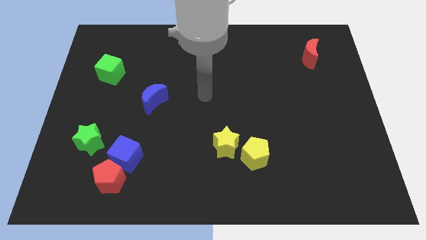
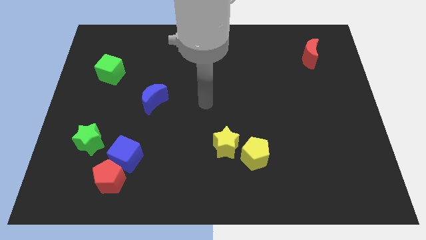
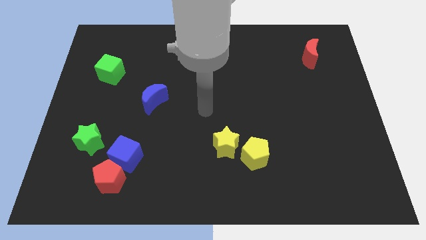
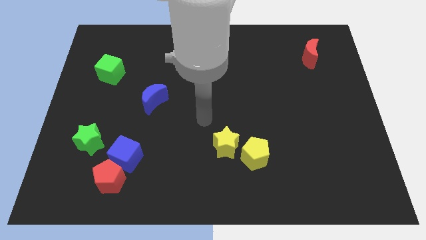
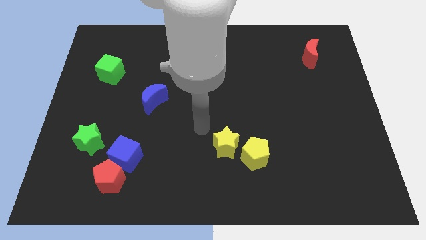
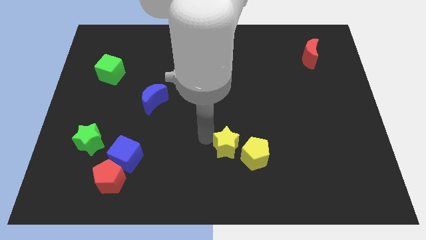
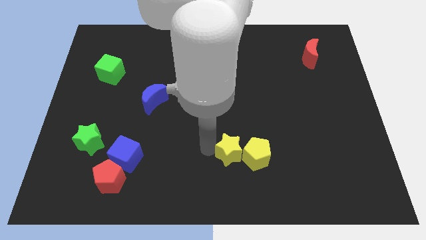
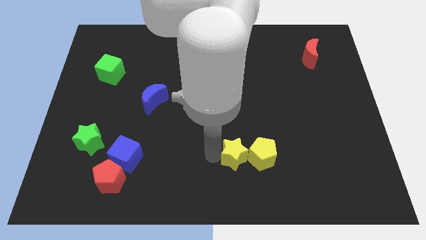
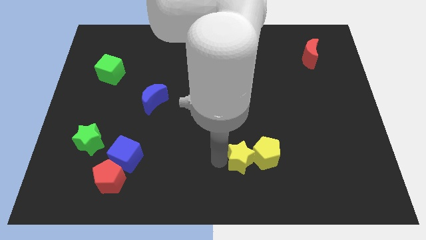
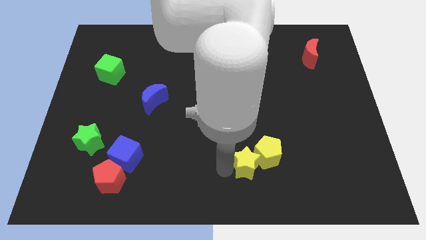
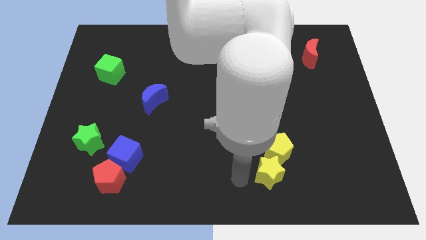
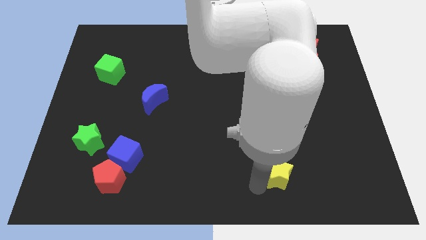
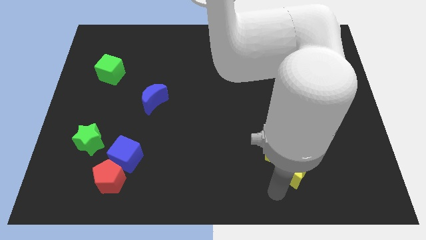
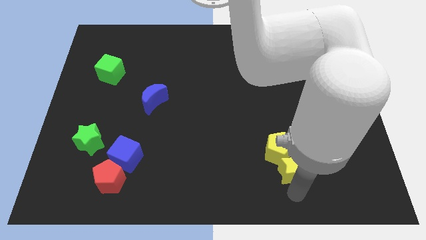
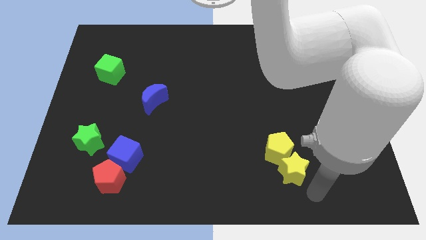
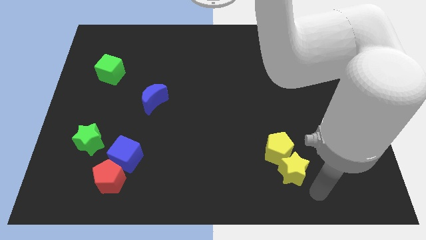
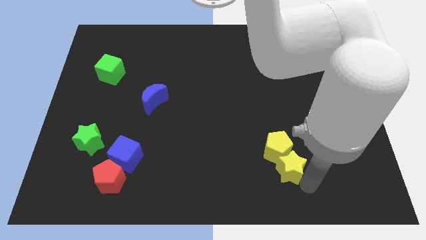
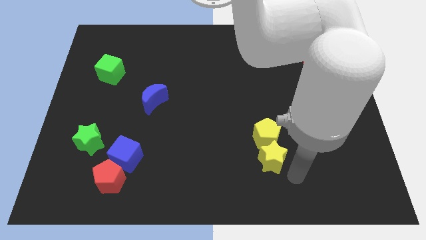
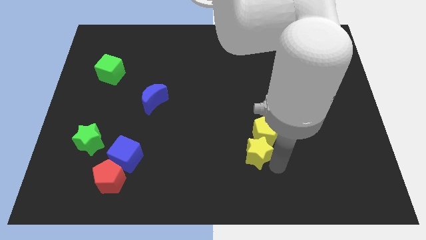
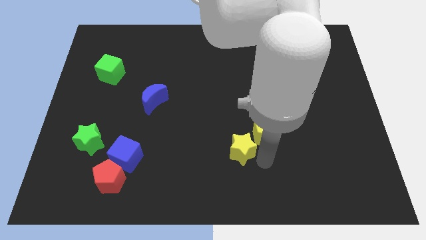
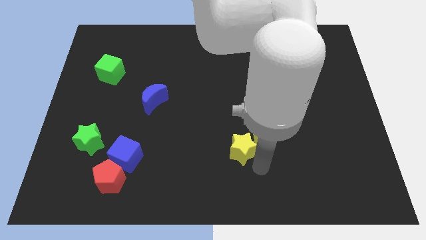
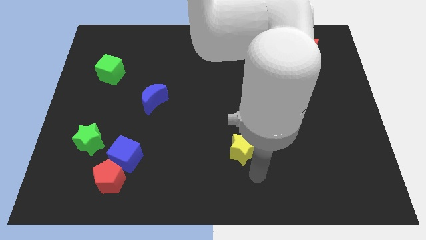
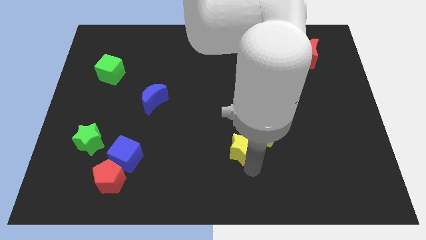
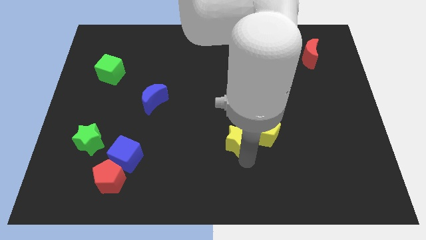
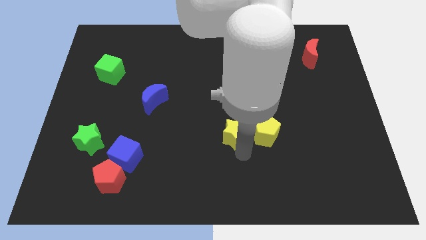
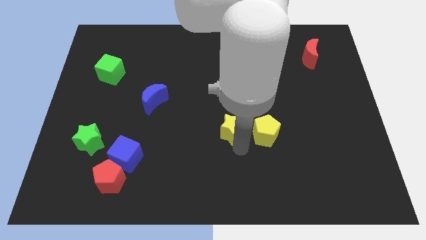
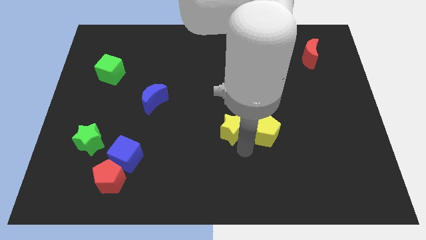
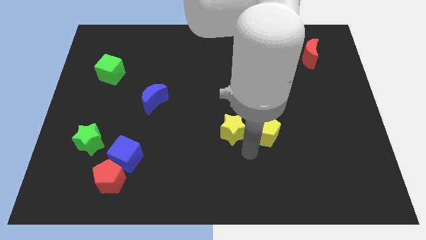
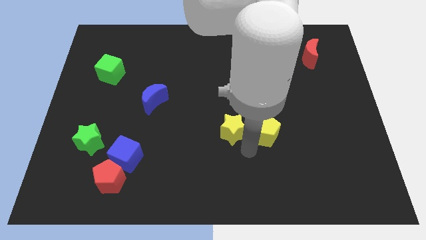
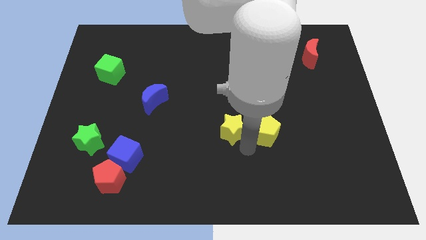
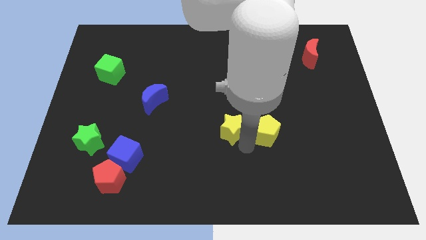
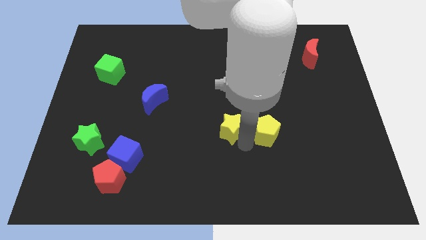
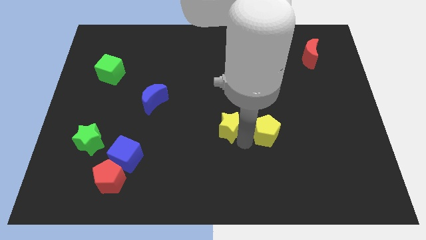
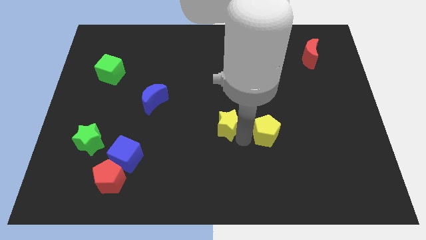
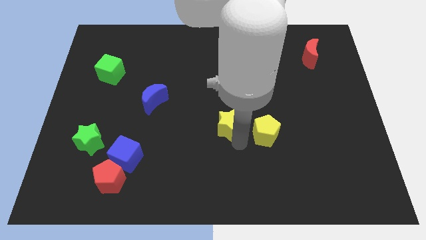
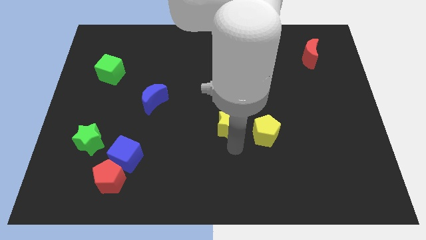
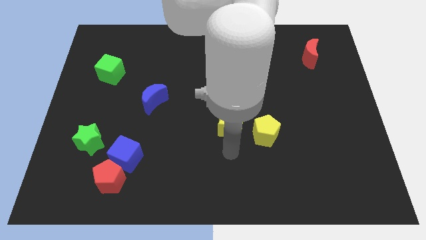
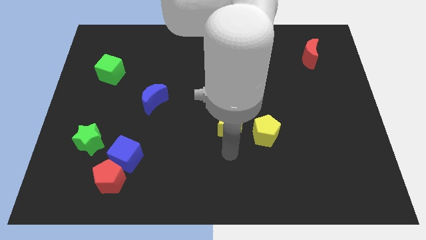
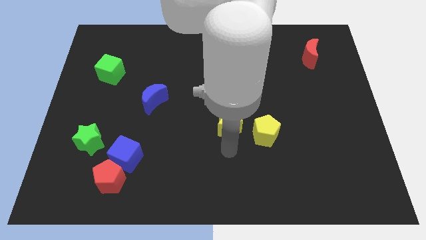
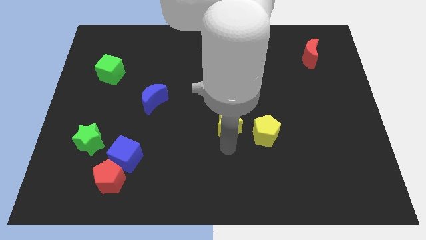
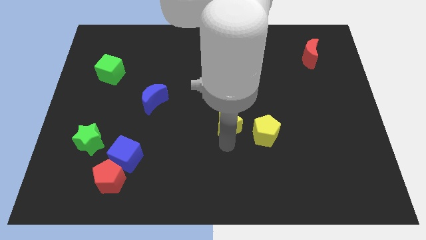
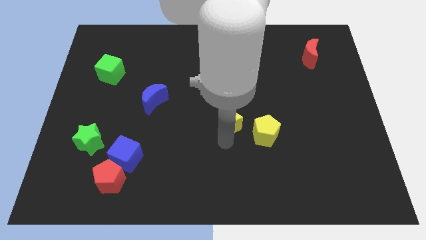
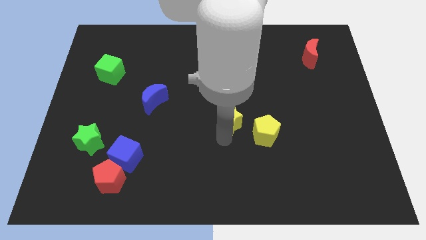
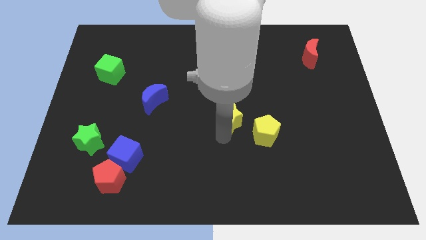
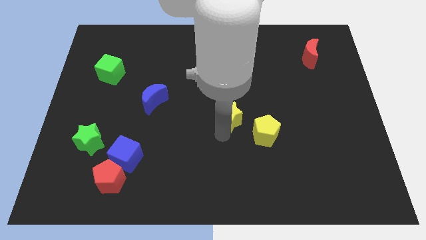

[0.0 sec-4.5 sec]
slightly push the yellow star up

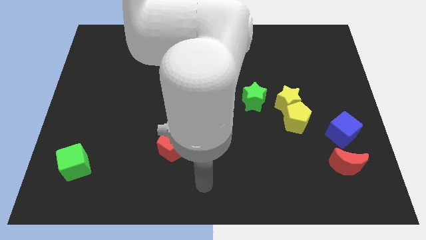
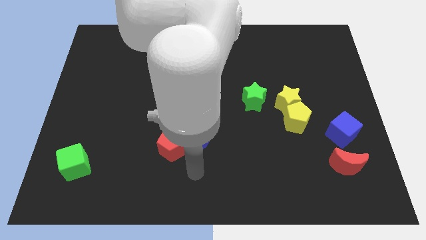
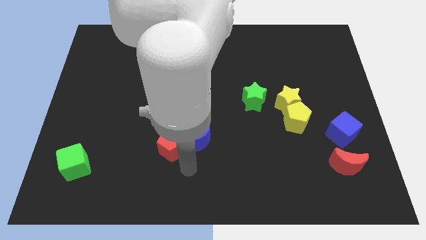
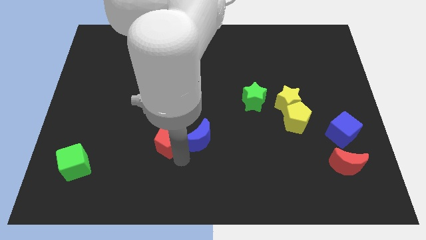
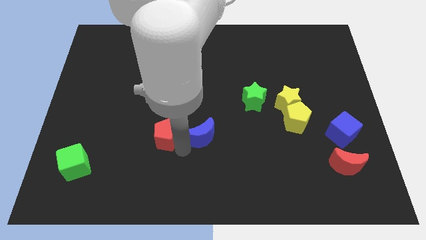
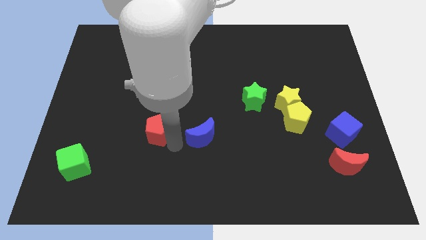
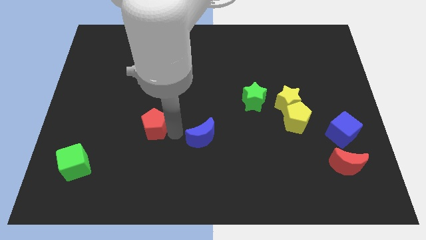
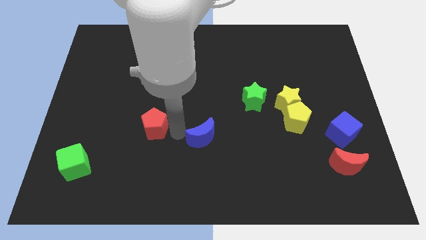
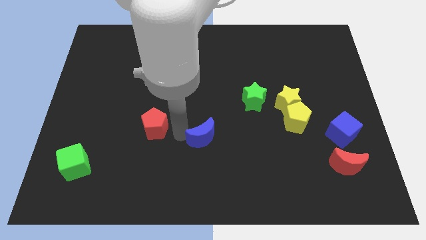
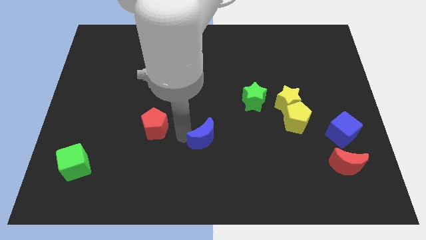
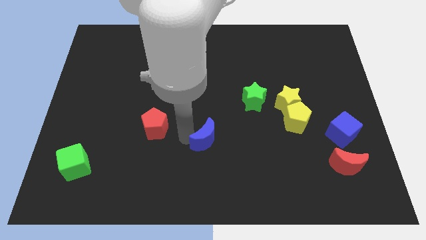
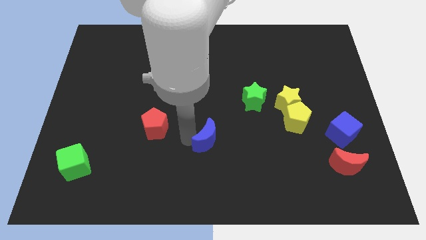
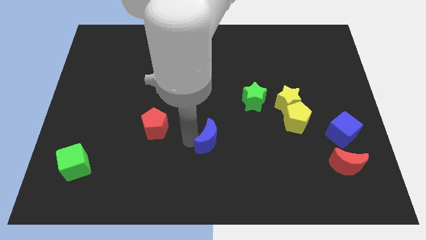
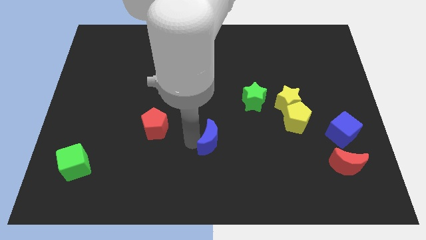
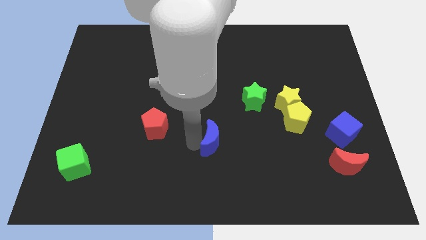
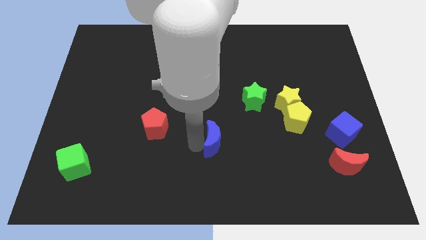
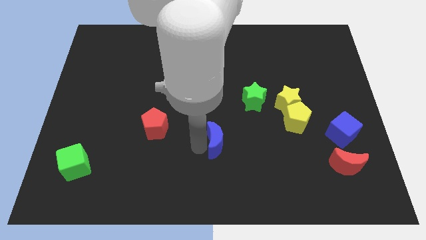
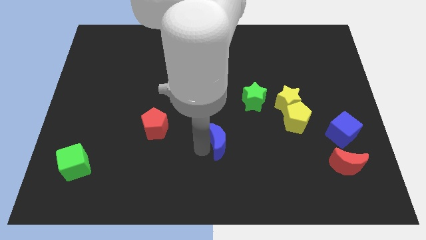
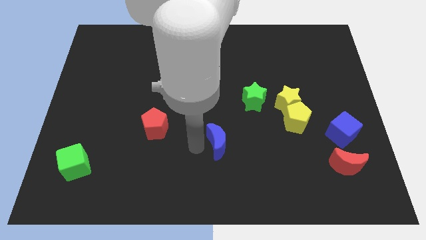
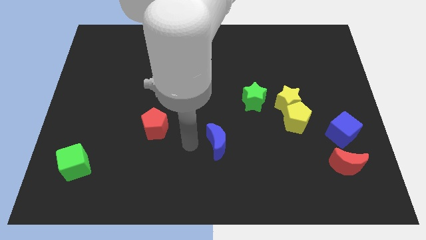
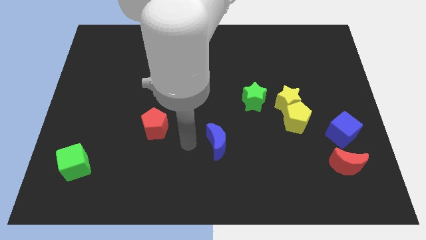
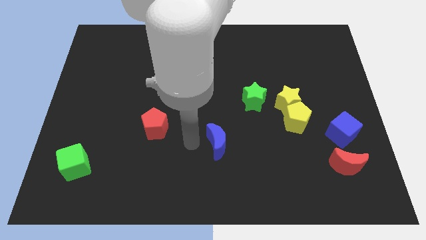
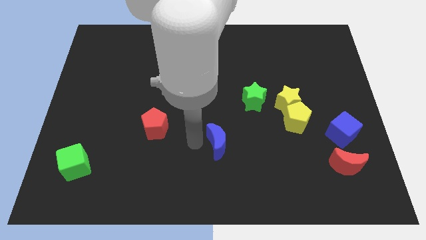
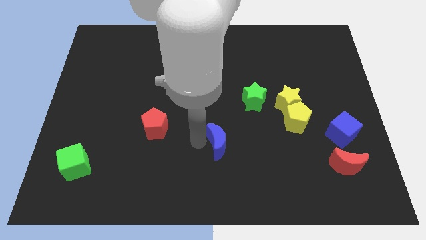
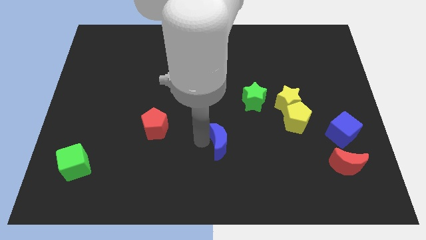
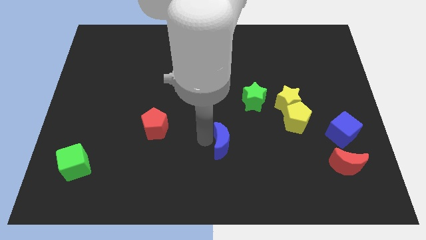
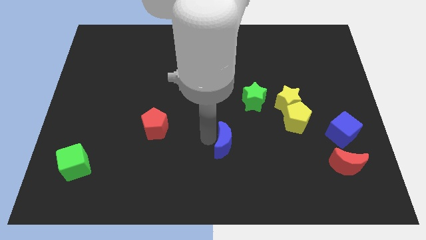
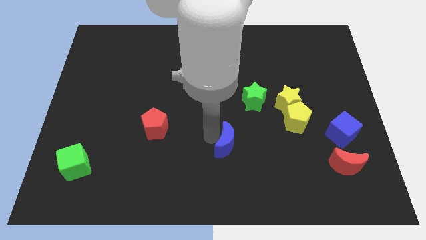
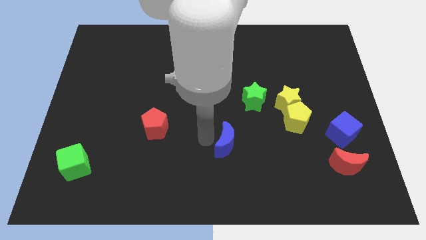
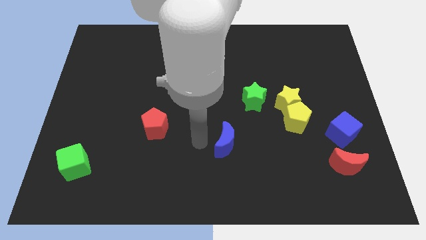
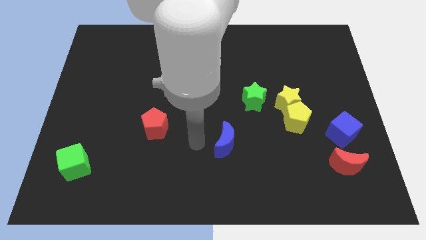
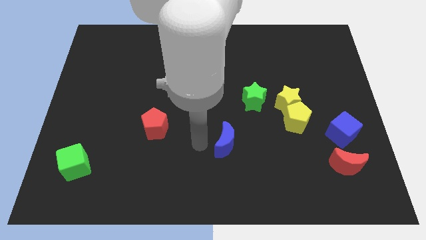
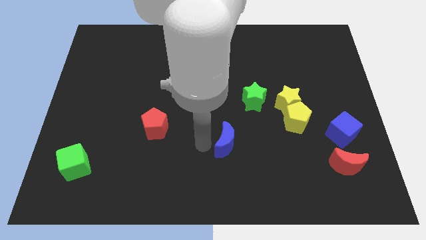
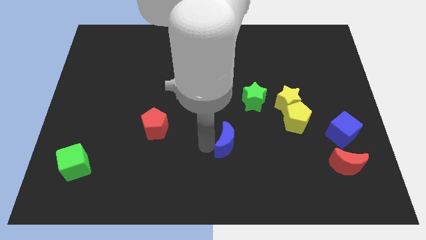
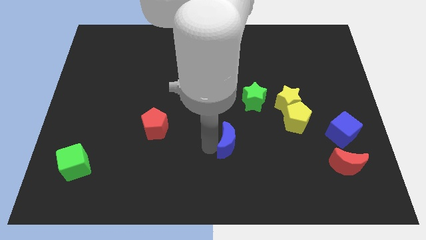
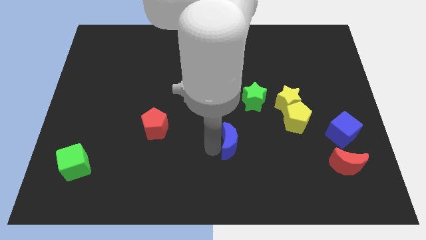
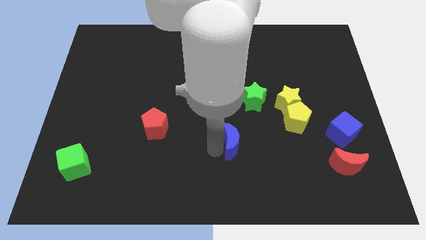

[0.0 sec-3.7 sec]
push the blue moon a little bit right
